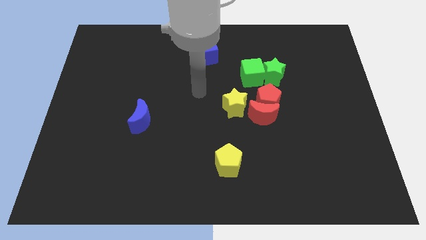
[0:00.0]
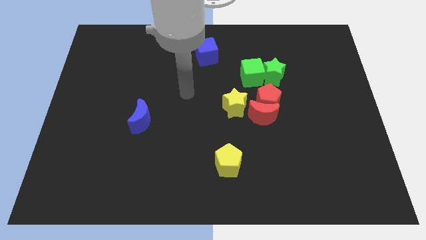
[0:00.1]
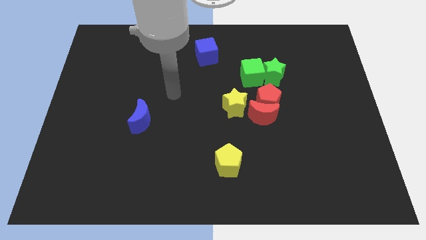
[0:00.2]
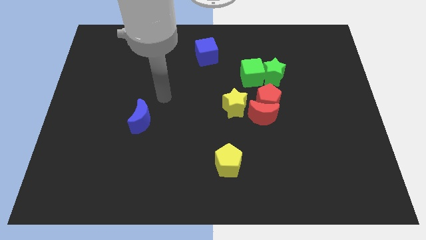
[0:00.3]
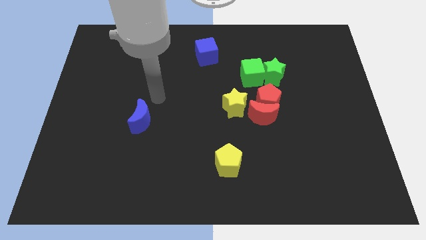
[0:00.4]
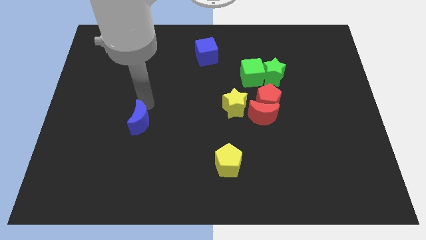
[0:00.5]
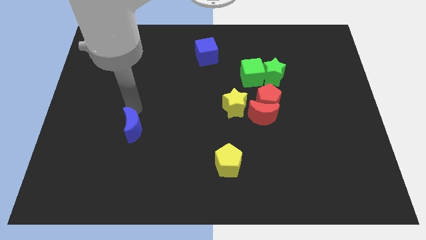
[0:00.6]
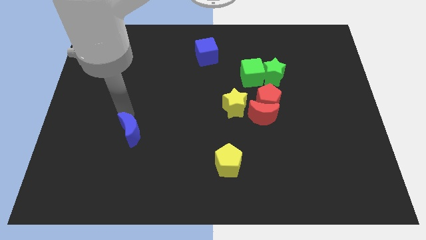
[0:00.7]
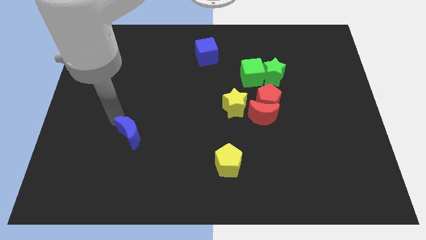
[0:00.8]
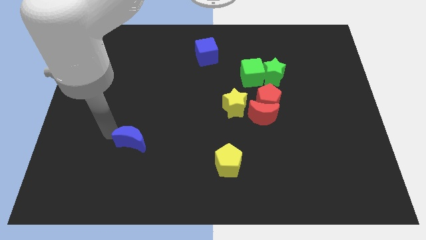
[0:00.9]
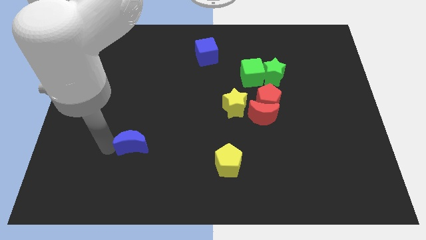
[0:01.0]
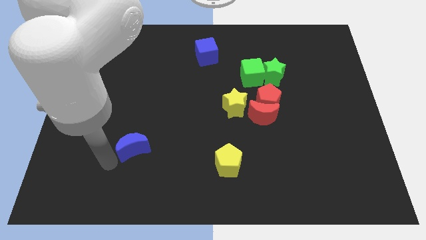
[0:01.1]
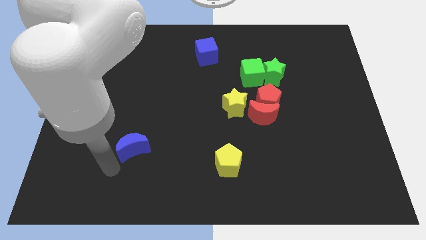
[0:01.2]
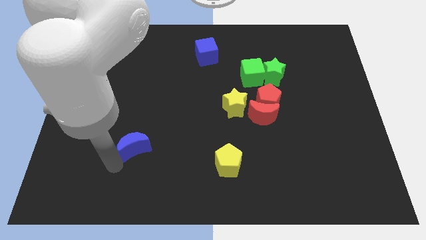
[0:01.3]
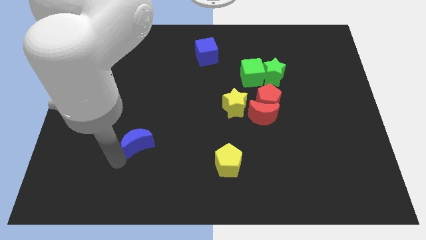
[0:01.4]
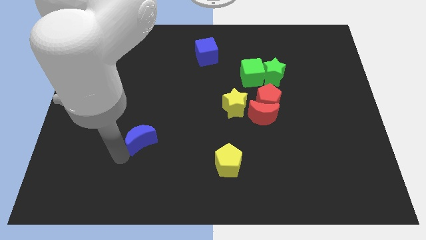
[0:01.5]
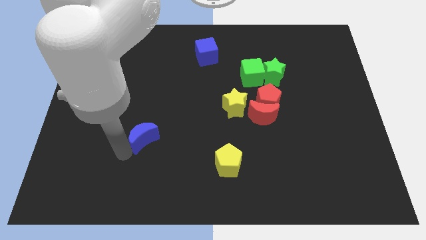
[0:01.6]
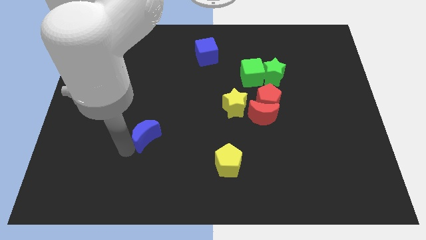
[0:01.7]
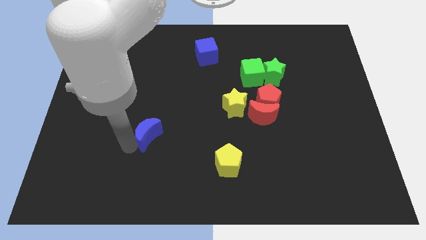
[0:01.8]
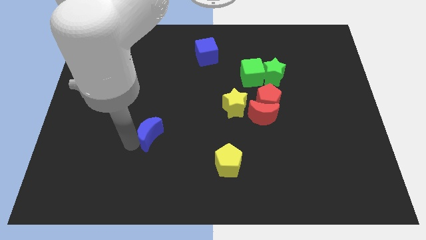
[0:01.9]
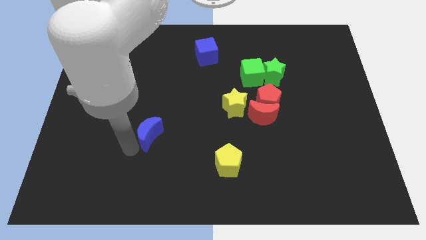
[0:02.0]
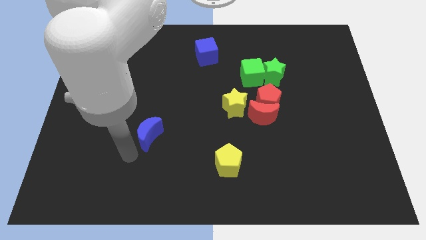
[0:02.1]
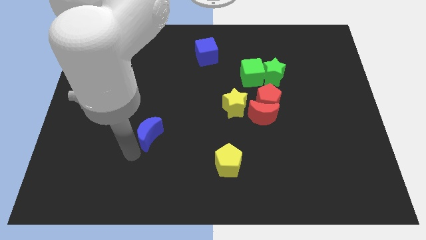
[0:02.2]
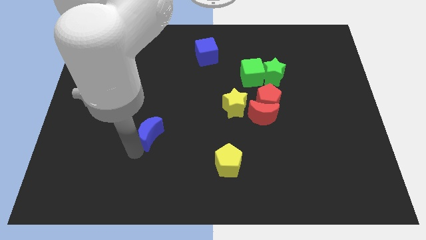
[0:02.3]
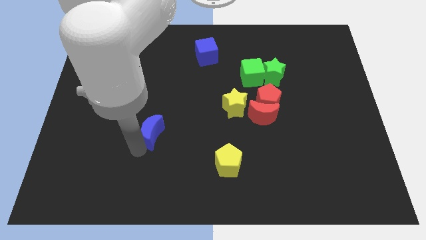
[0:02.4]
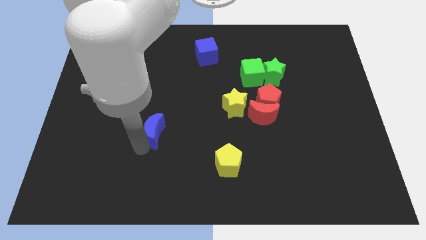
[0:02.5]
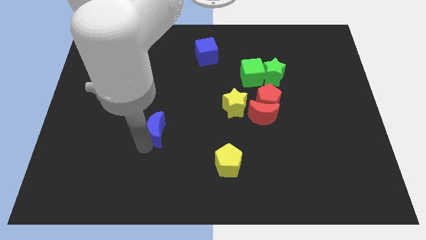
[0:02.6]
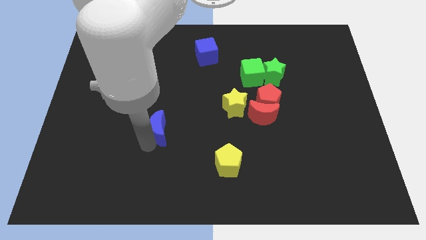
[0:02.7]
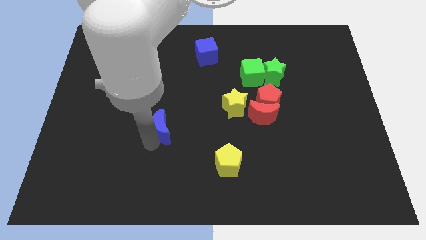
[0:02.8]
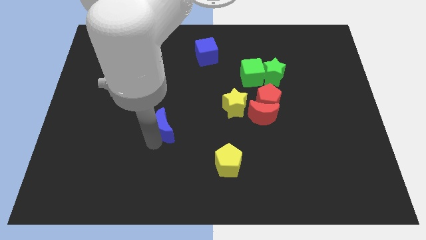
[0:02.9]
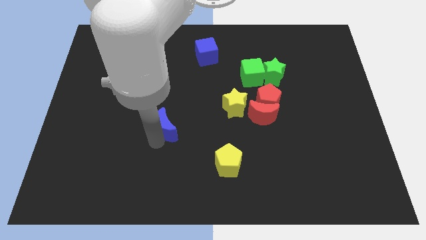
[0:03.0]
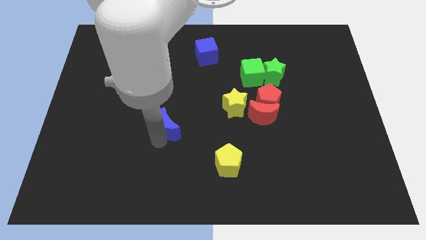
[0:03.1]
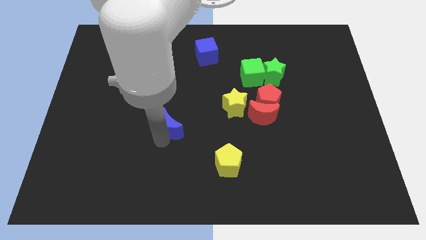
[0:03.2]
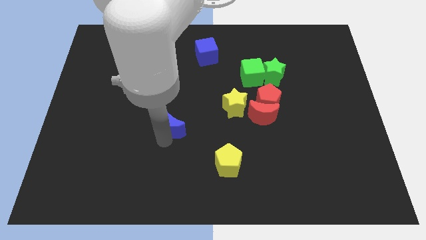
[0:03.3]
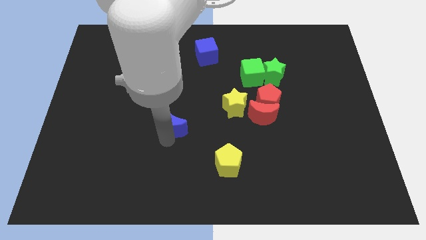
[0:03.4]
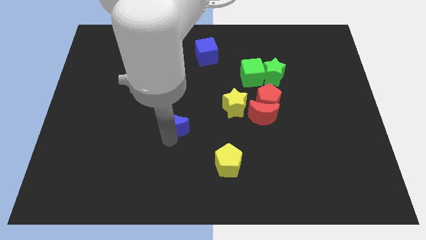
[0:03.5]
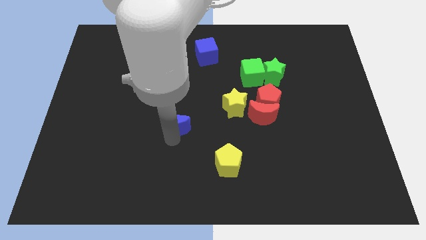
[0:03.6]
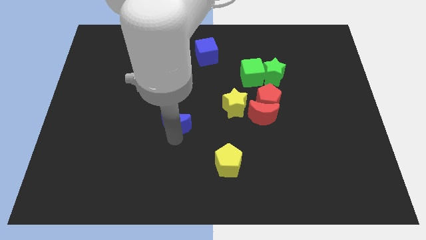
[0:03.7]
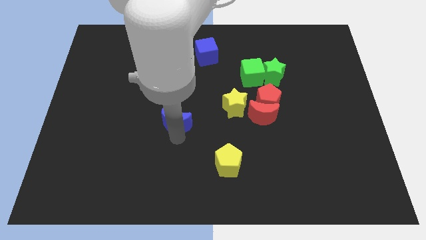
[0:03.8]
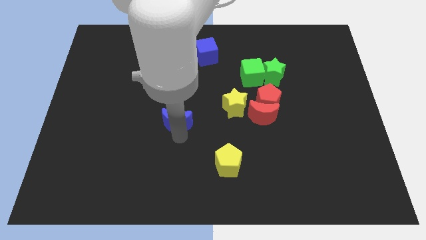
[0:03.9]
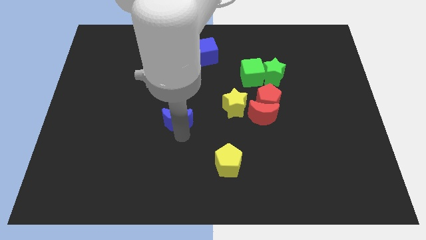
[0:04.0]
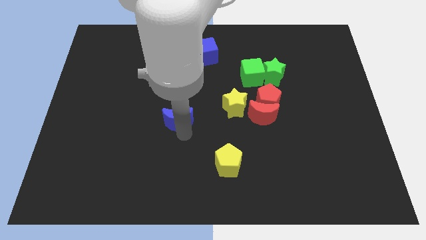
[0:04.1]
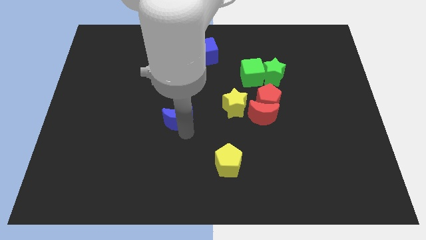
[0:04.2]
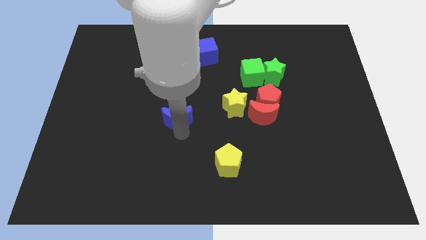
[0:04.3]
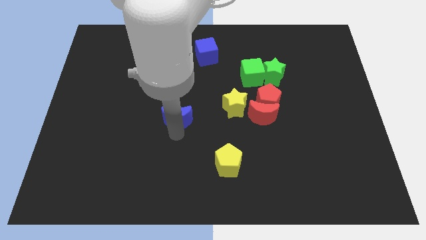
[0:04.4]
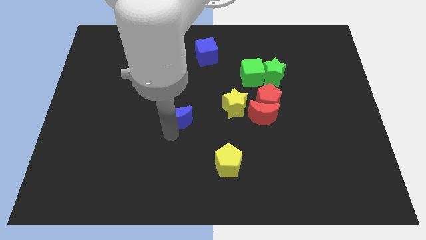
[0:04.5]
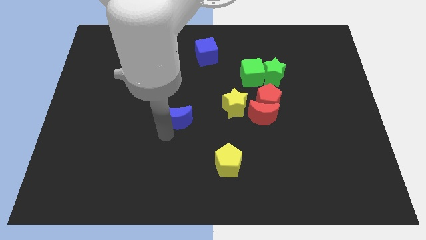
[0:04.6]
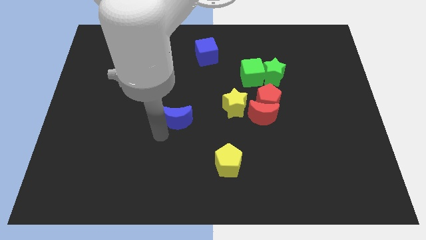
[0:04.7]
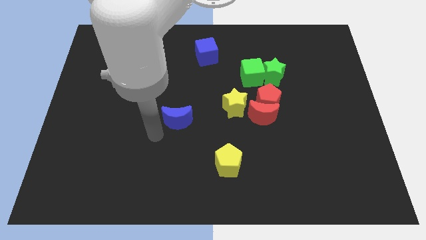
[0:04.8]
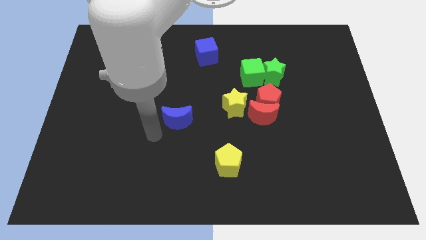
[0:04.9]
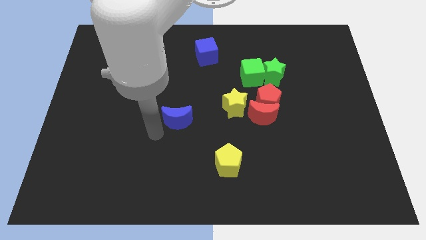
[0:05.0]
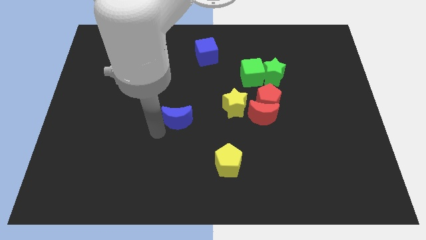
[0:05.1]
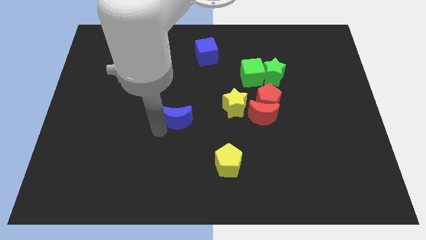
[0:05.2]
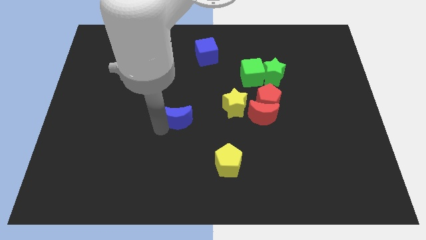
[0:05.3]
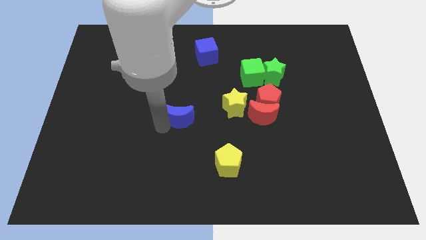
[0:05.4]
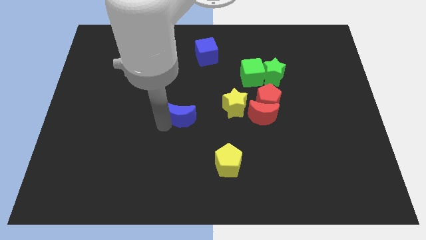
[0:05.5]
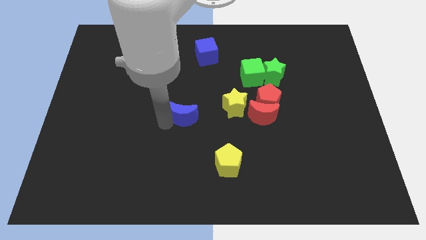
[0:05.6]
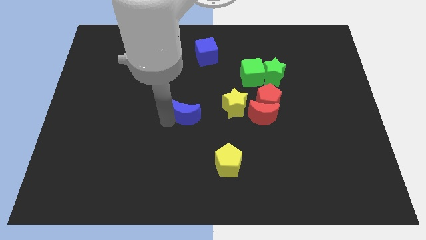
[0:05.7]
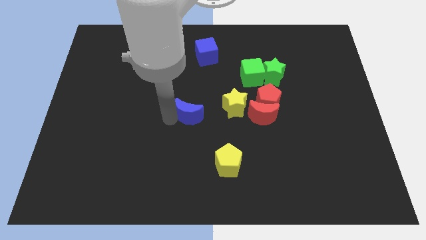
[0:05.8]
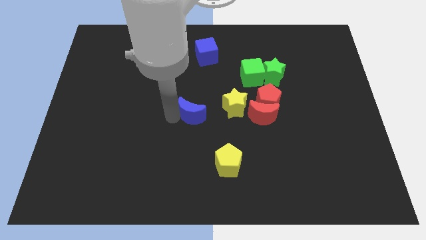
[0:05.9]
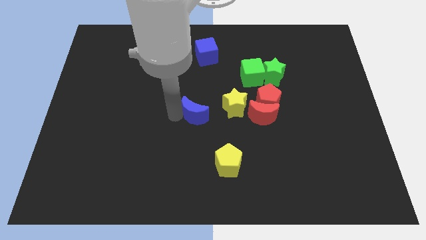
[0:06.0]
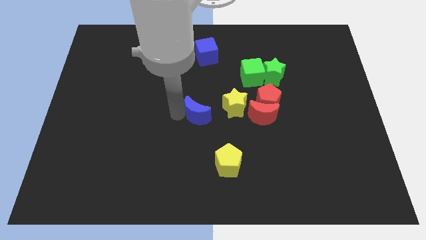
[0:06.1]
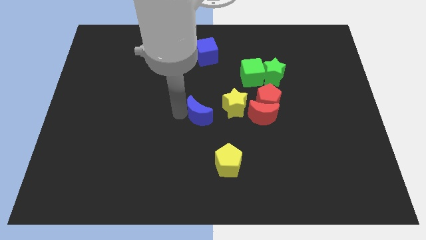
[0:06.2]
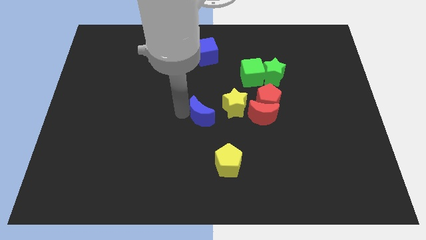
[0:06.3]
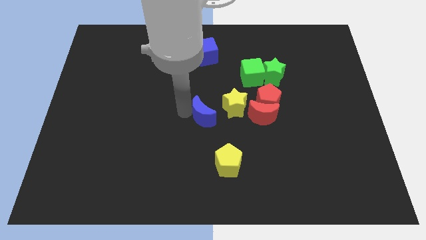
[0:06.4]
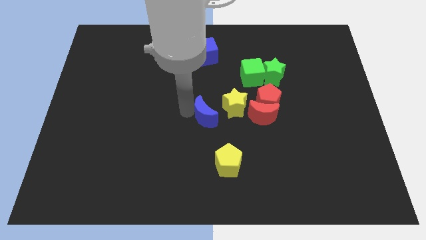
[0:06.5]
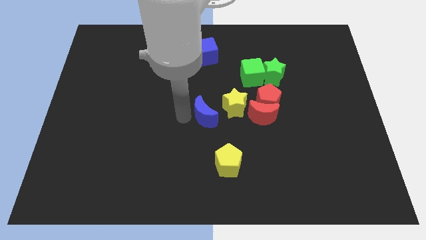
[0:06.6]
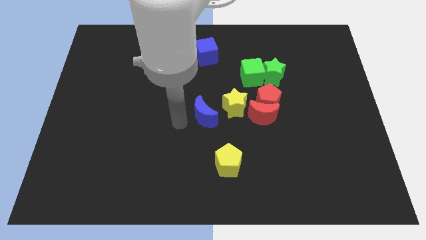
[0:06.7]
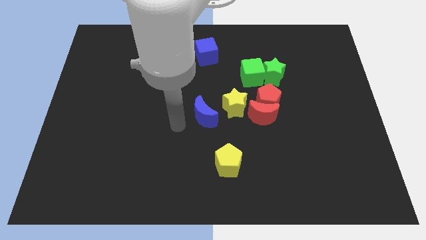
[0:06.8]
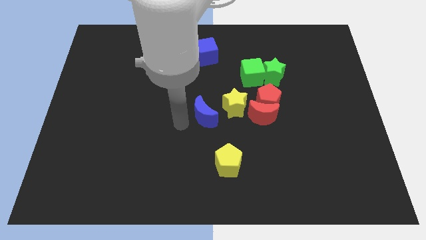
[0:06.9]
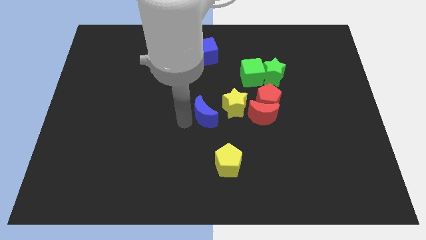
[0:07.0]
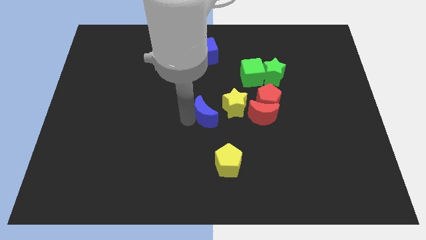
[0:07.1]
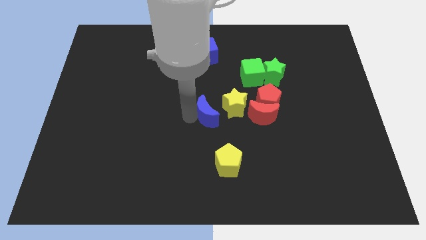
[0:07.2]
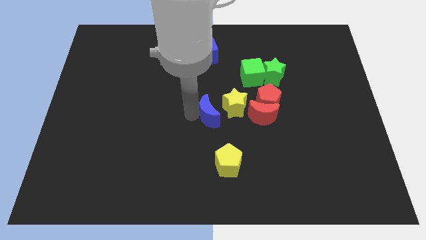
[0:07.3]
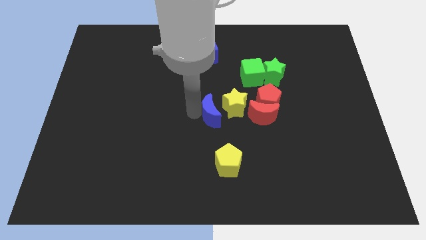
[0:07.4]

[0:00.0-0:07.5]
slide the blue moon towards the yellow star
